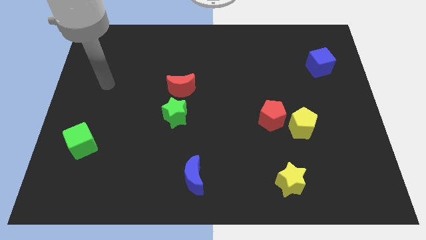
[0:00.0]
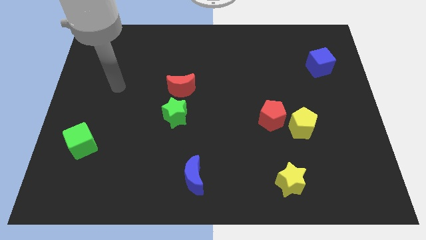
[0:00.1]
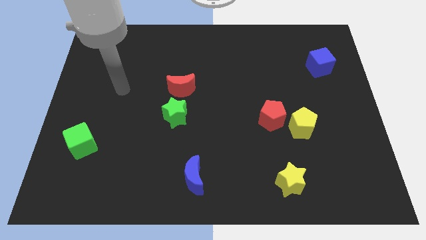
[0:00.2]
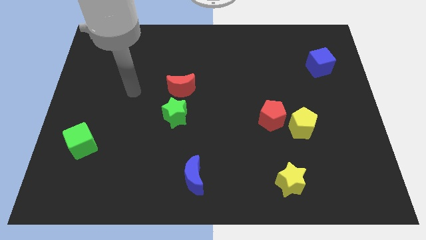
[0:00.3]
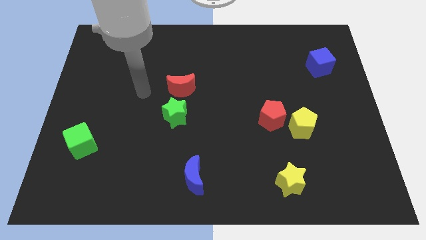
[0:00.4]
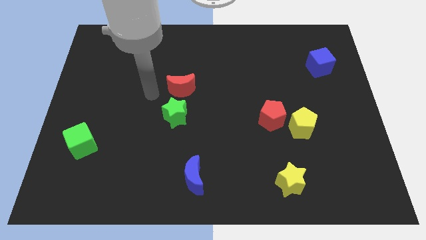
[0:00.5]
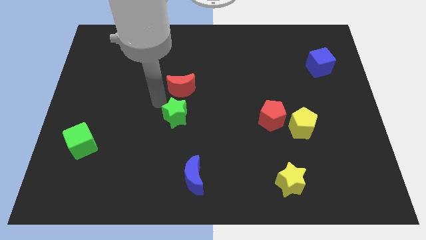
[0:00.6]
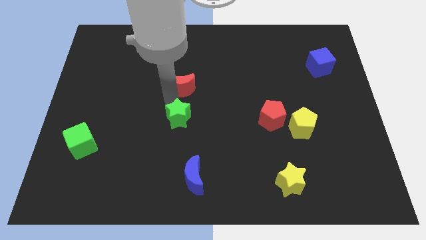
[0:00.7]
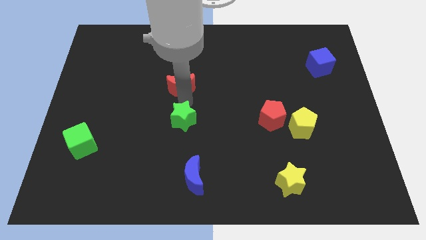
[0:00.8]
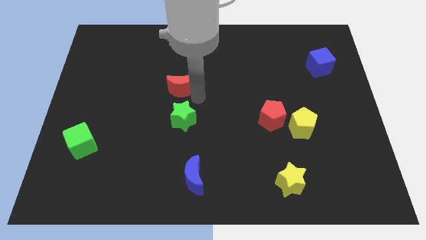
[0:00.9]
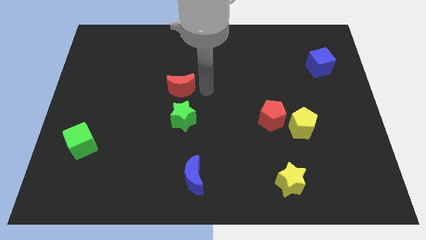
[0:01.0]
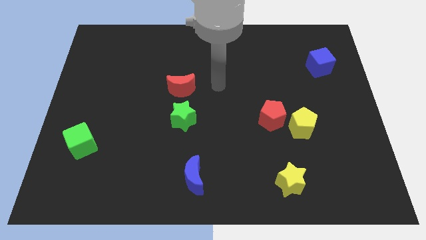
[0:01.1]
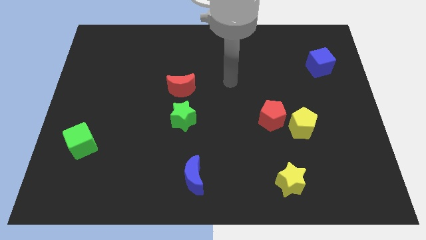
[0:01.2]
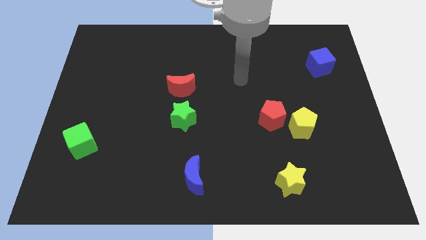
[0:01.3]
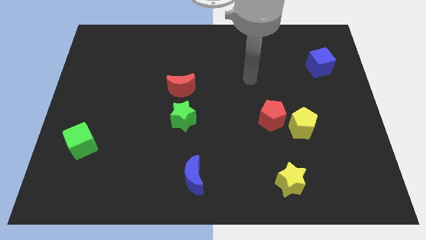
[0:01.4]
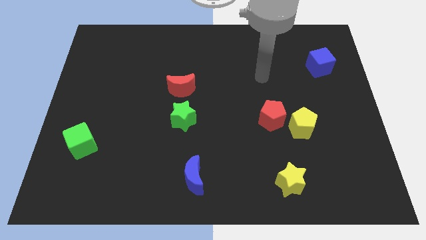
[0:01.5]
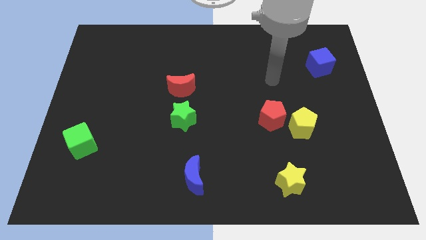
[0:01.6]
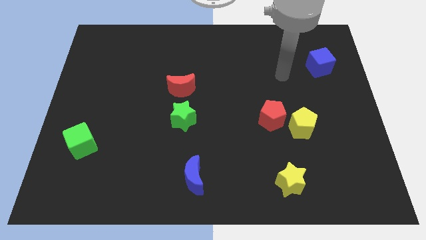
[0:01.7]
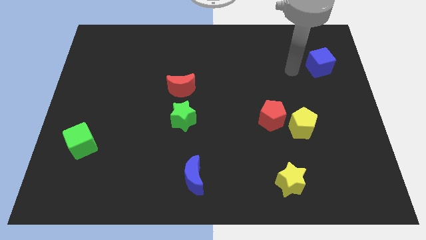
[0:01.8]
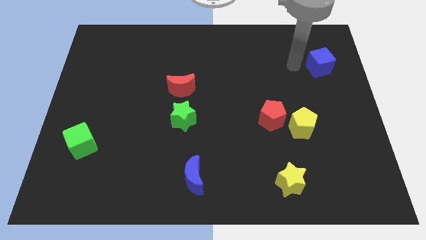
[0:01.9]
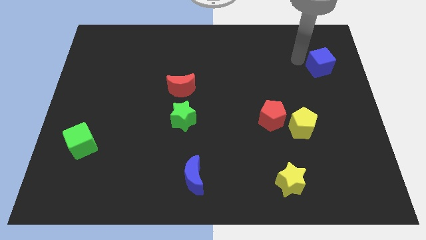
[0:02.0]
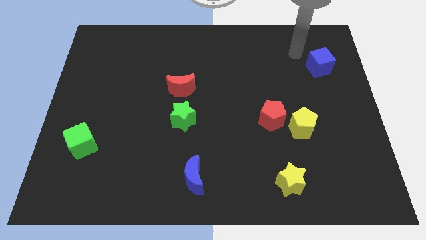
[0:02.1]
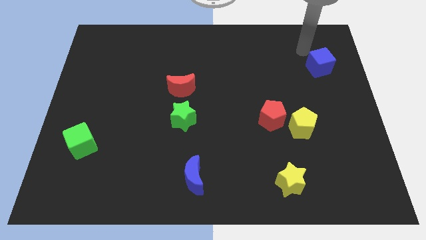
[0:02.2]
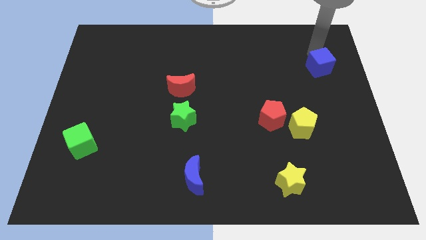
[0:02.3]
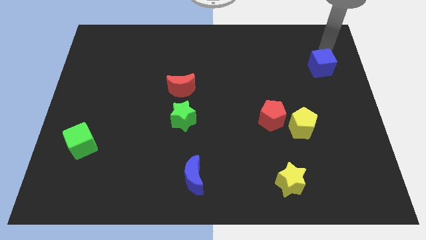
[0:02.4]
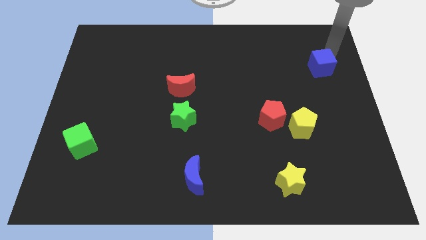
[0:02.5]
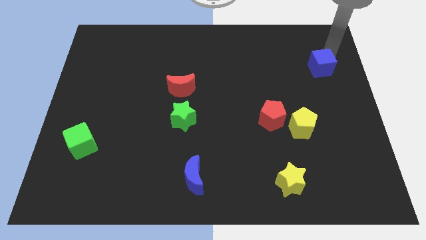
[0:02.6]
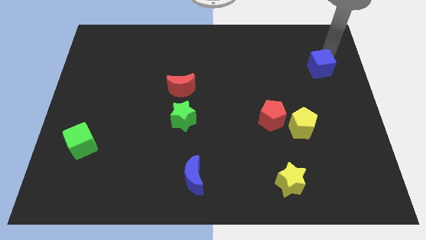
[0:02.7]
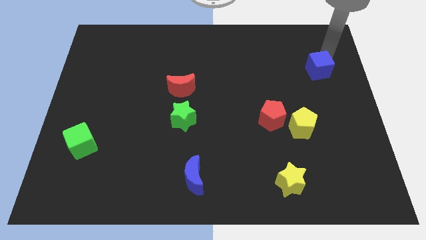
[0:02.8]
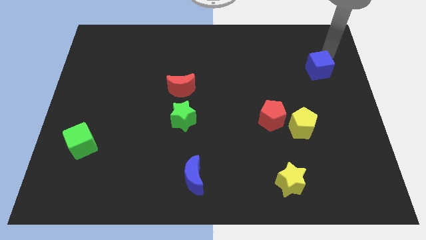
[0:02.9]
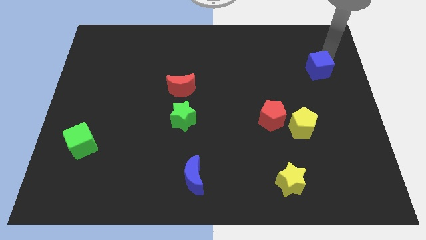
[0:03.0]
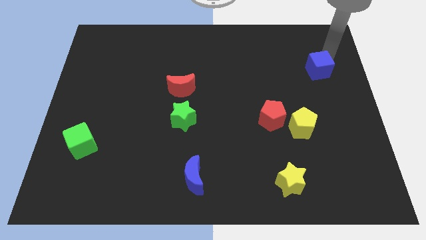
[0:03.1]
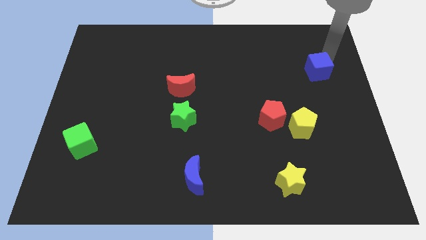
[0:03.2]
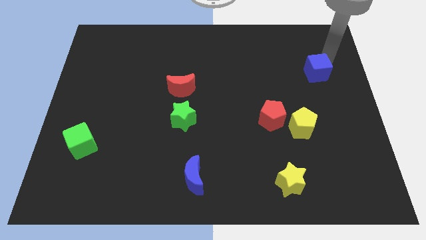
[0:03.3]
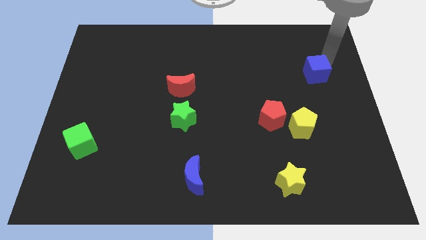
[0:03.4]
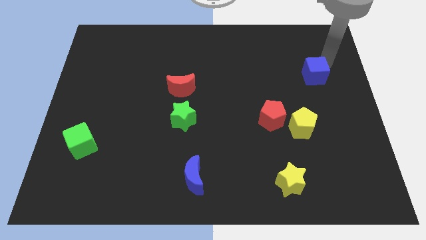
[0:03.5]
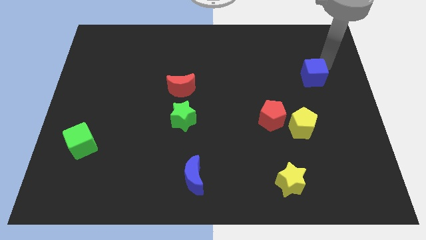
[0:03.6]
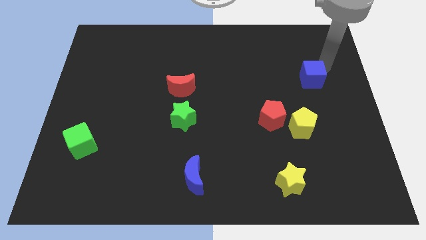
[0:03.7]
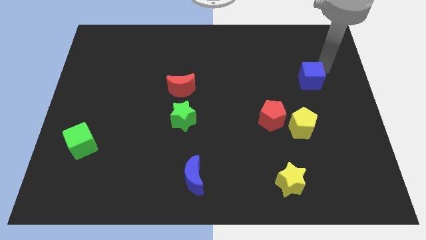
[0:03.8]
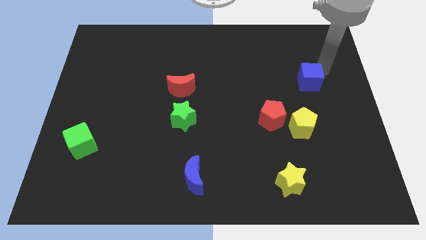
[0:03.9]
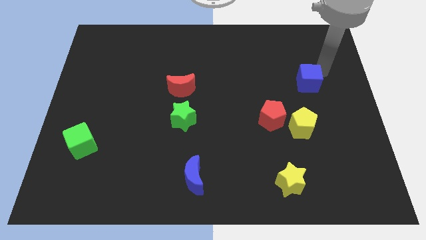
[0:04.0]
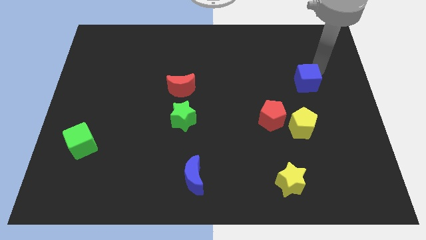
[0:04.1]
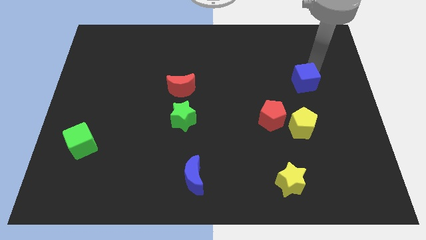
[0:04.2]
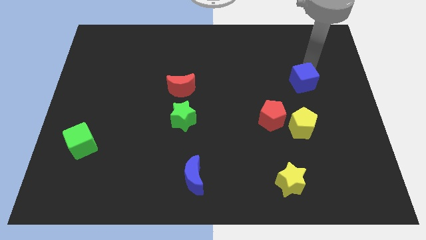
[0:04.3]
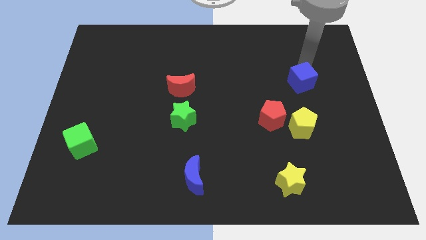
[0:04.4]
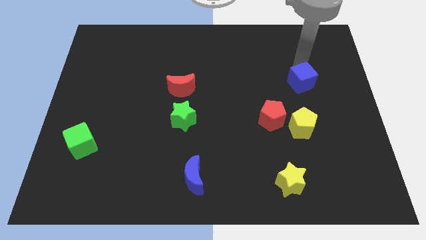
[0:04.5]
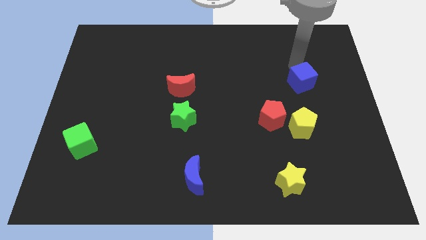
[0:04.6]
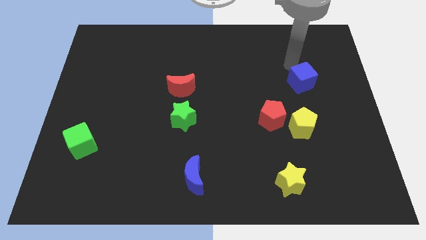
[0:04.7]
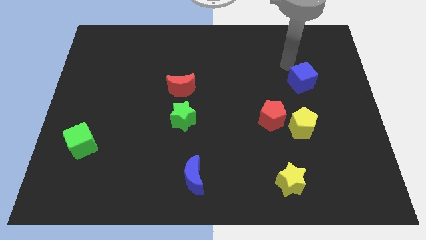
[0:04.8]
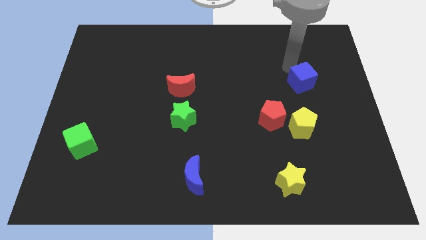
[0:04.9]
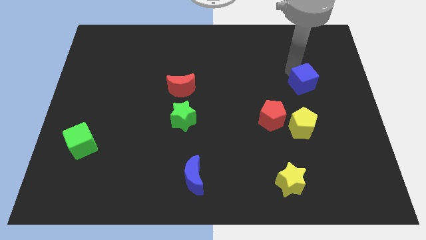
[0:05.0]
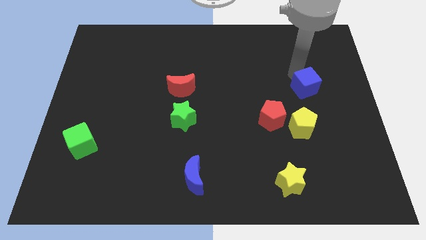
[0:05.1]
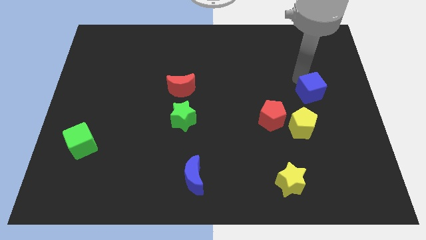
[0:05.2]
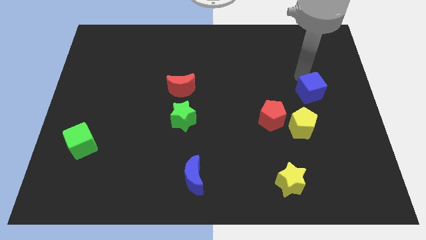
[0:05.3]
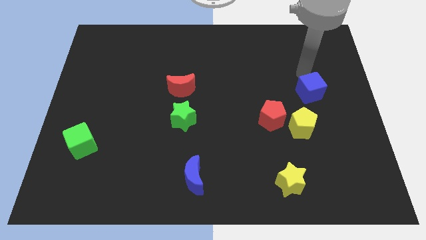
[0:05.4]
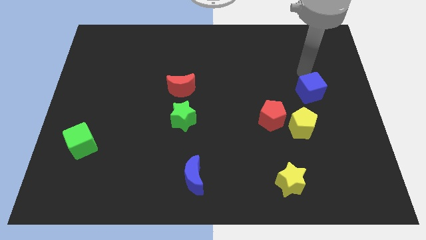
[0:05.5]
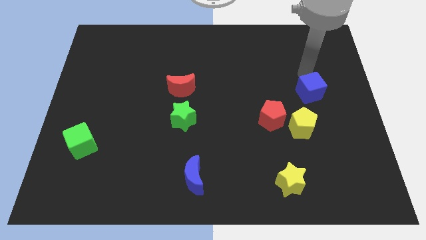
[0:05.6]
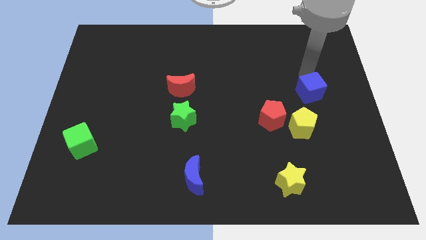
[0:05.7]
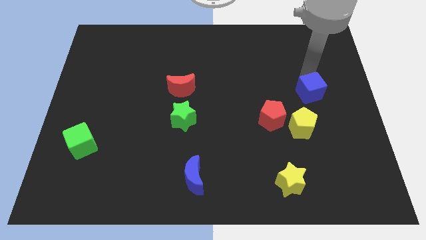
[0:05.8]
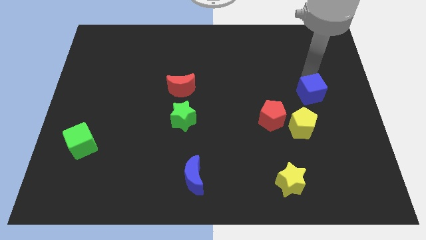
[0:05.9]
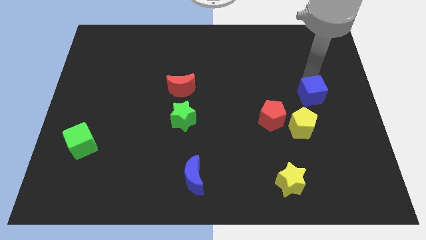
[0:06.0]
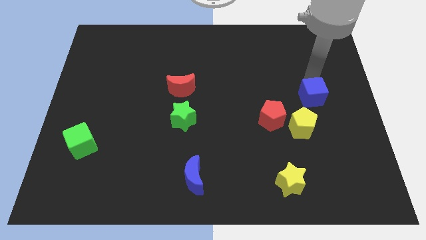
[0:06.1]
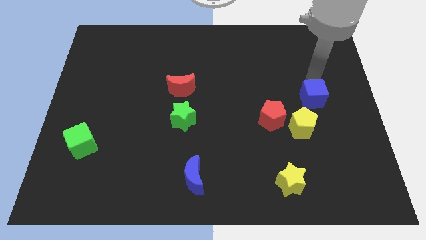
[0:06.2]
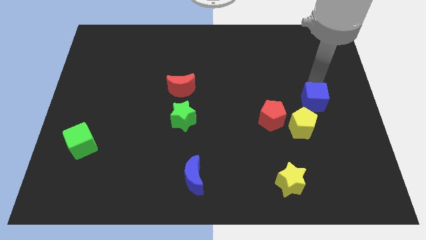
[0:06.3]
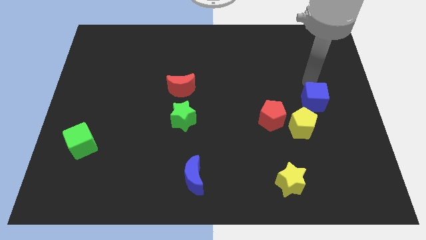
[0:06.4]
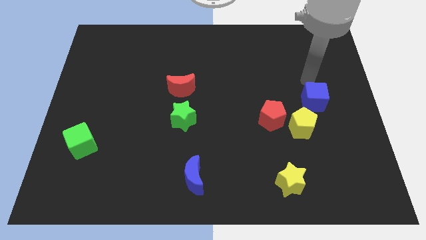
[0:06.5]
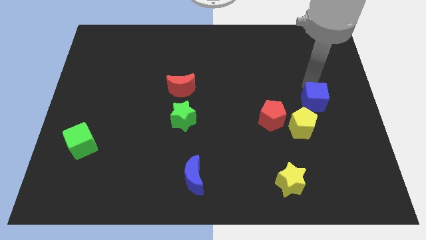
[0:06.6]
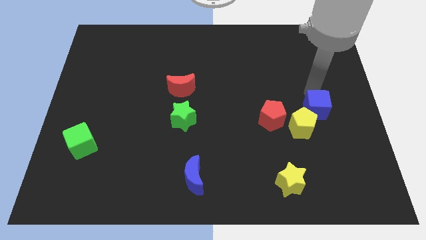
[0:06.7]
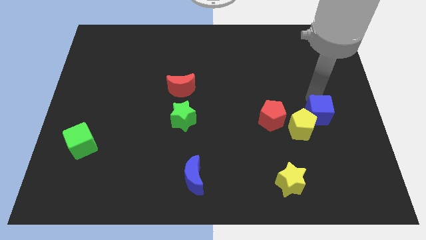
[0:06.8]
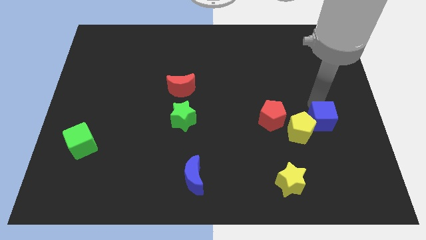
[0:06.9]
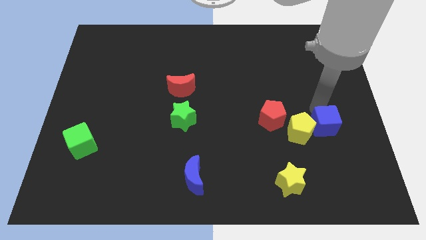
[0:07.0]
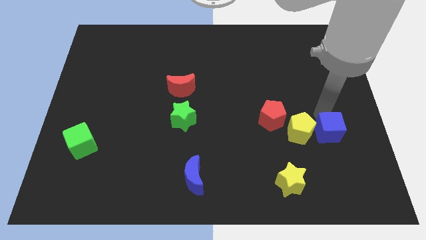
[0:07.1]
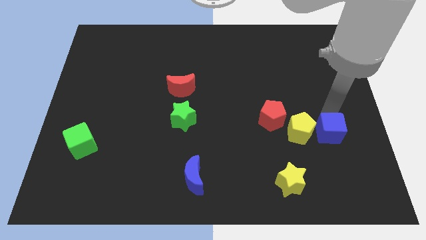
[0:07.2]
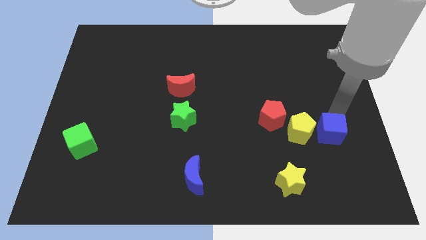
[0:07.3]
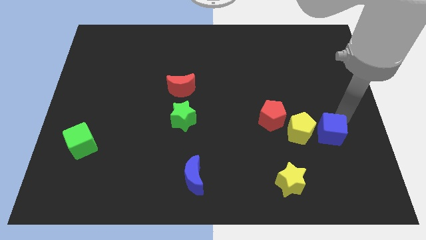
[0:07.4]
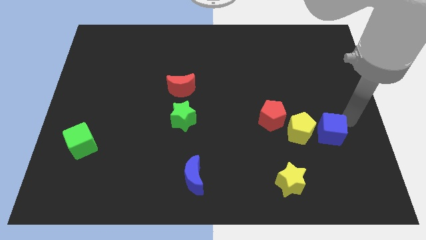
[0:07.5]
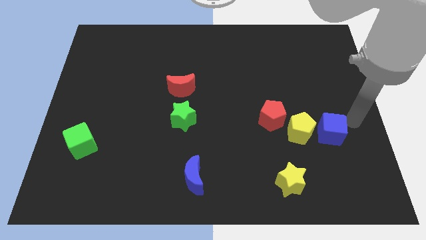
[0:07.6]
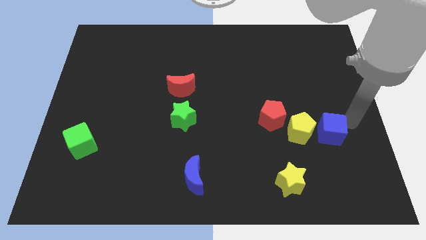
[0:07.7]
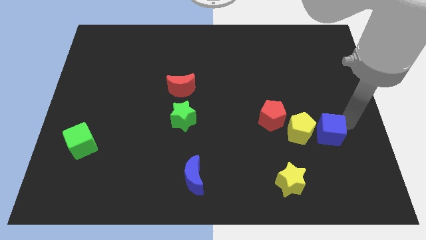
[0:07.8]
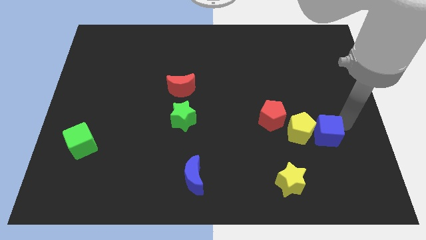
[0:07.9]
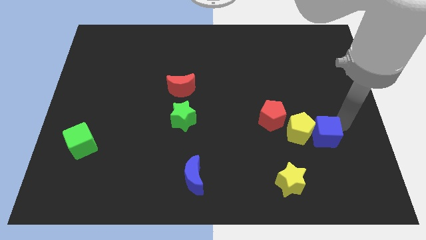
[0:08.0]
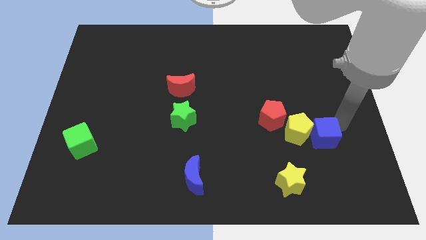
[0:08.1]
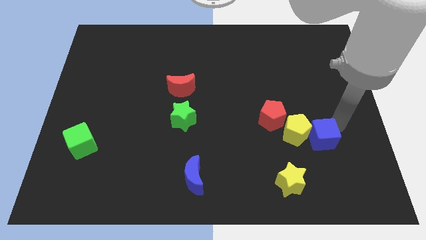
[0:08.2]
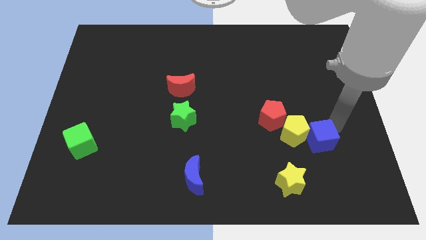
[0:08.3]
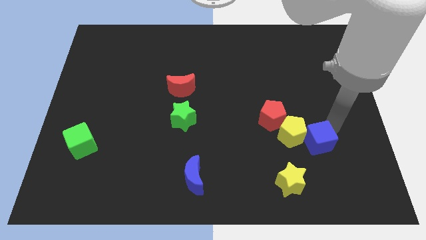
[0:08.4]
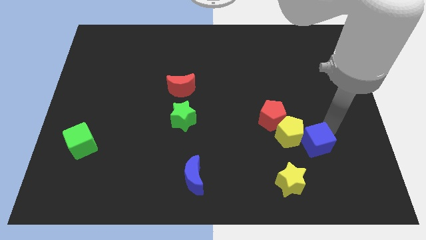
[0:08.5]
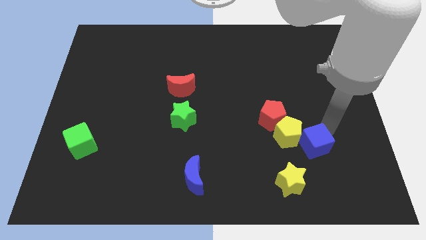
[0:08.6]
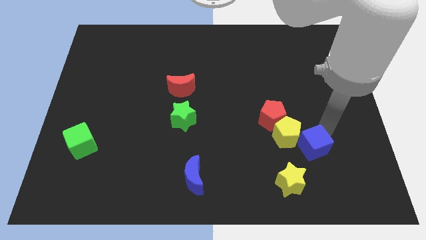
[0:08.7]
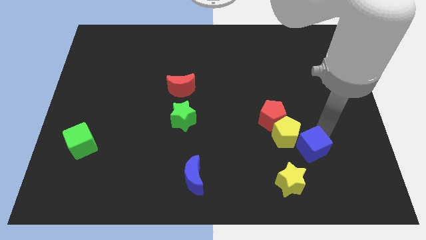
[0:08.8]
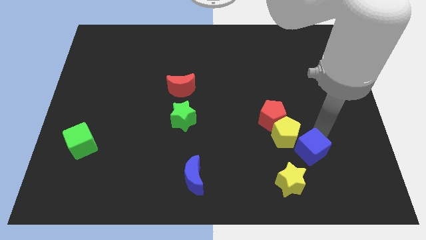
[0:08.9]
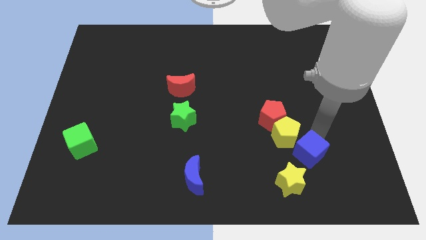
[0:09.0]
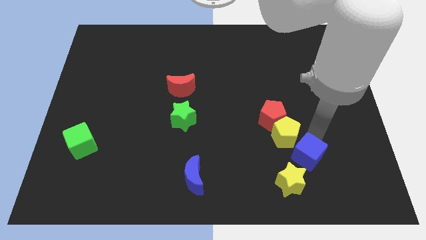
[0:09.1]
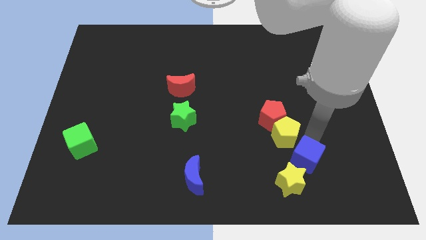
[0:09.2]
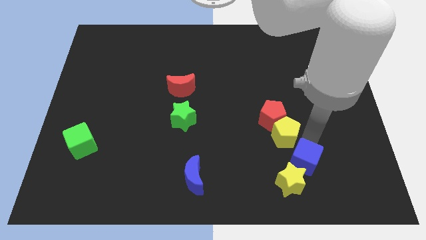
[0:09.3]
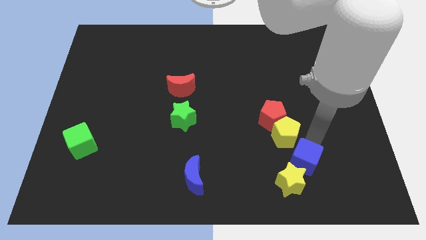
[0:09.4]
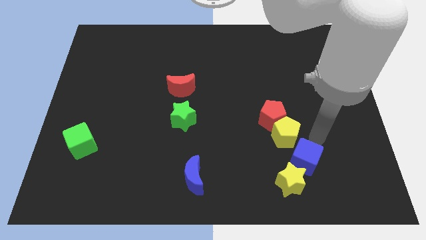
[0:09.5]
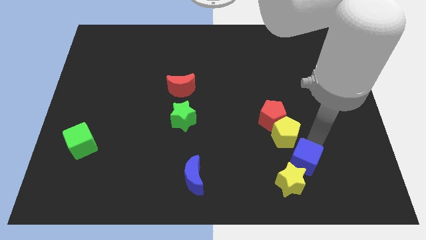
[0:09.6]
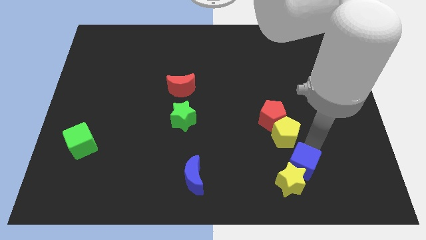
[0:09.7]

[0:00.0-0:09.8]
slide the blue cube to the yellow star
